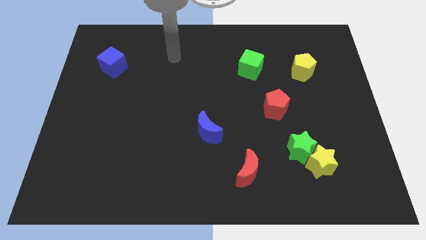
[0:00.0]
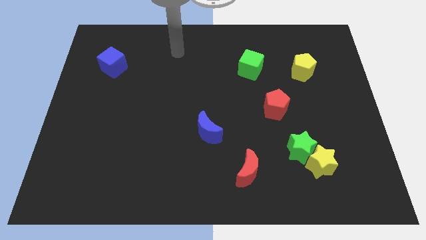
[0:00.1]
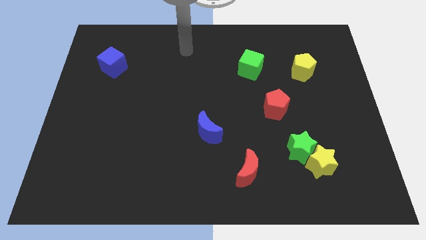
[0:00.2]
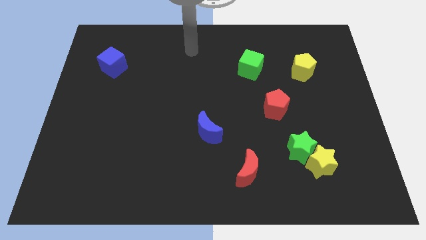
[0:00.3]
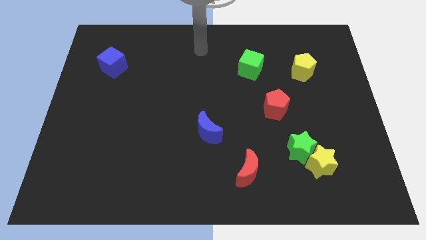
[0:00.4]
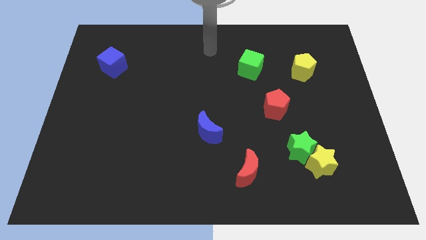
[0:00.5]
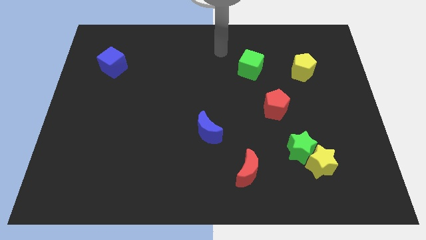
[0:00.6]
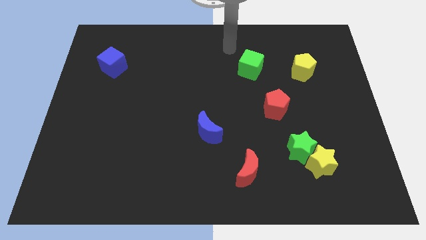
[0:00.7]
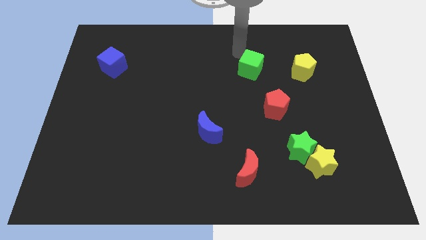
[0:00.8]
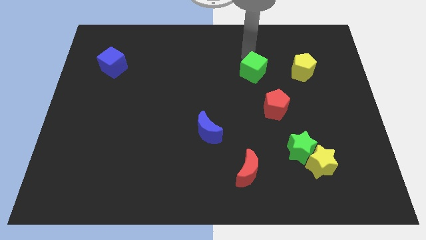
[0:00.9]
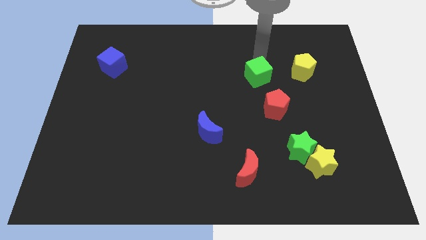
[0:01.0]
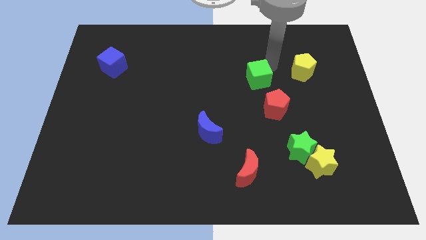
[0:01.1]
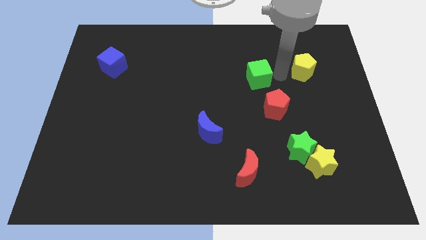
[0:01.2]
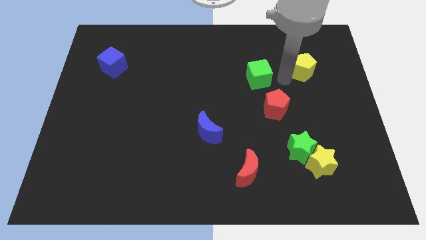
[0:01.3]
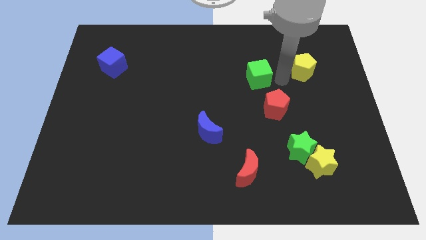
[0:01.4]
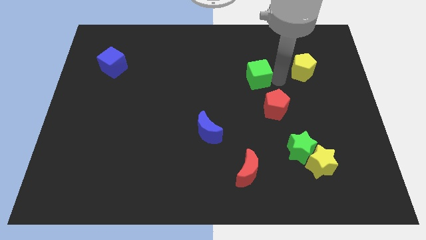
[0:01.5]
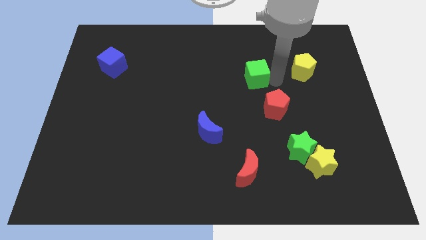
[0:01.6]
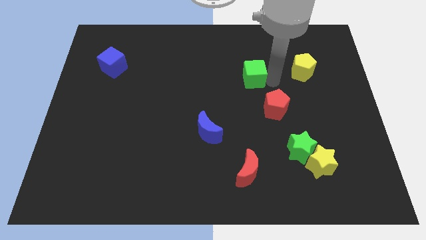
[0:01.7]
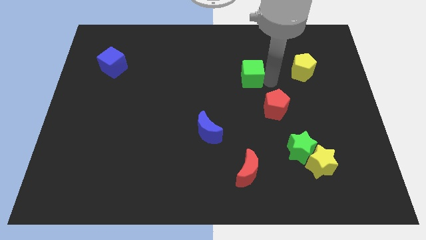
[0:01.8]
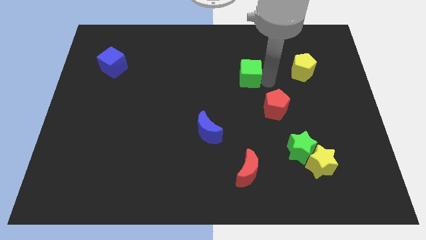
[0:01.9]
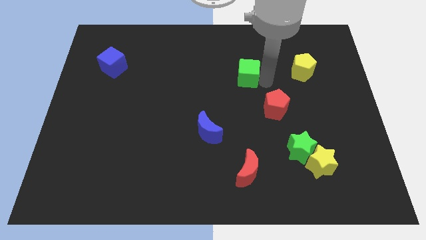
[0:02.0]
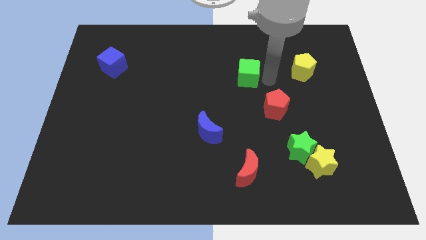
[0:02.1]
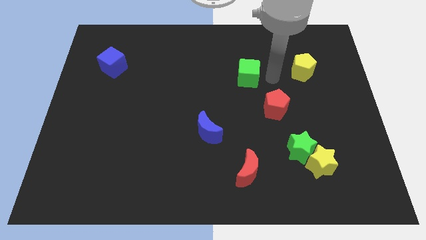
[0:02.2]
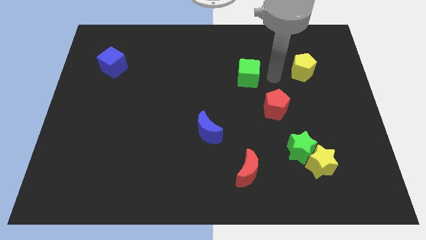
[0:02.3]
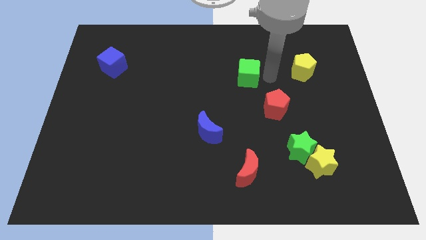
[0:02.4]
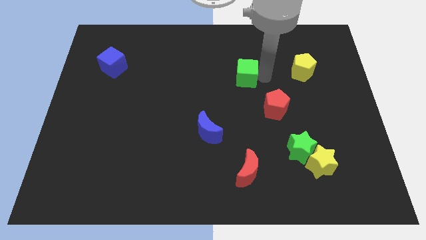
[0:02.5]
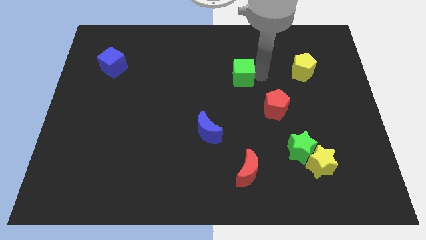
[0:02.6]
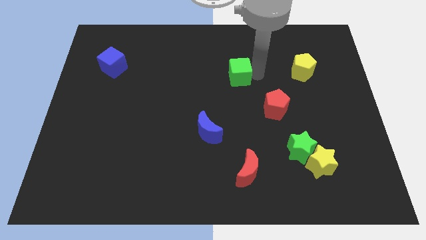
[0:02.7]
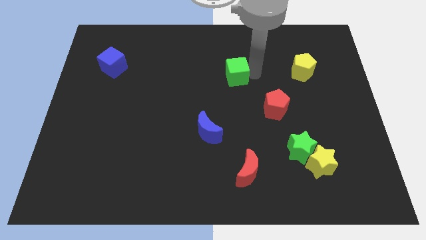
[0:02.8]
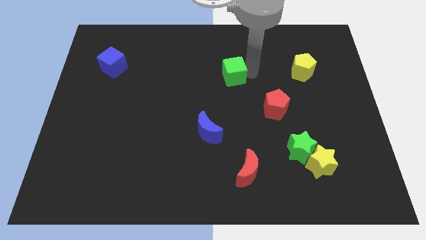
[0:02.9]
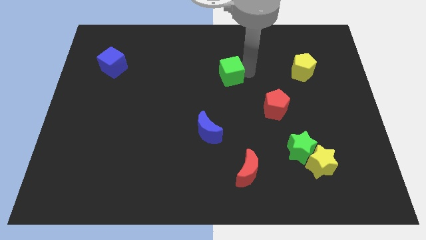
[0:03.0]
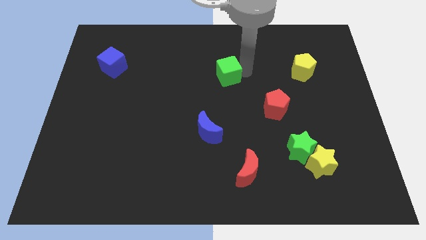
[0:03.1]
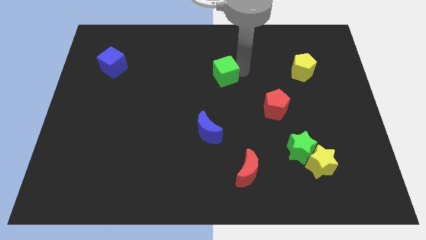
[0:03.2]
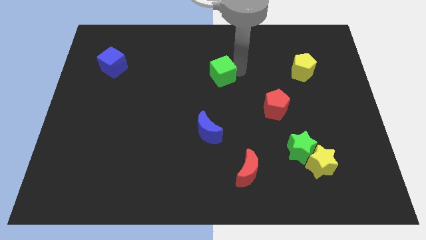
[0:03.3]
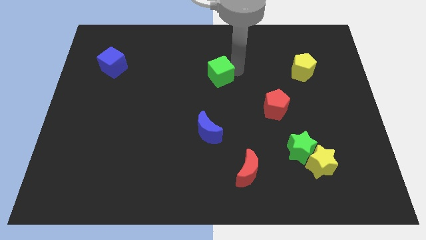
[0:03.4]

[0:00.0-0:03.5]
move the green cube a bit downwards and then to the left

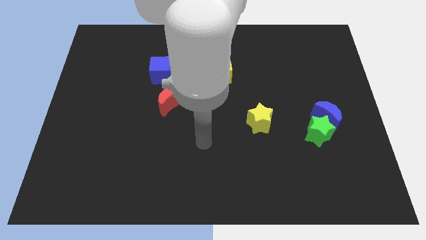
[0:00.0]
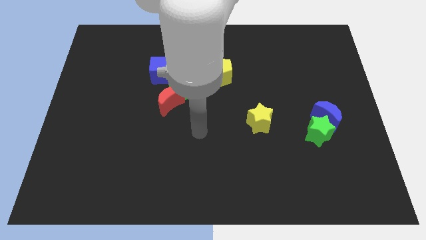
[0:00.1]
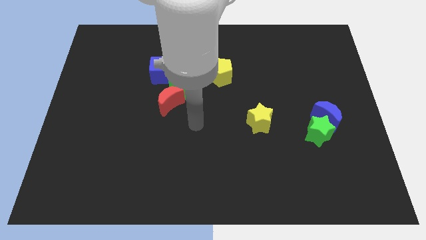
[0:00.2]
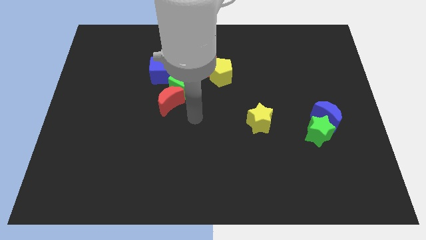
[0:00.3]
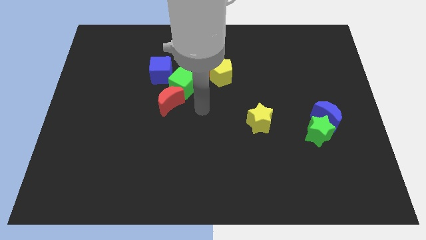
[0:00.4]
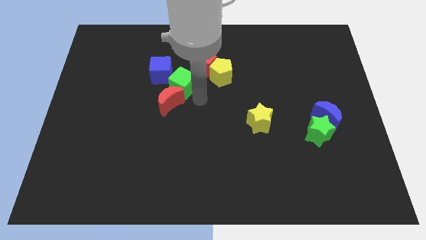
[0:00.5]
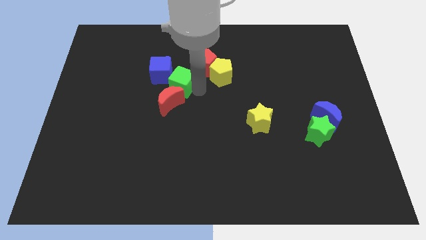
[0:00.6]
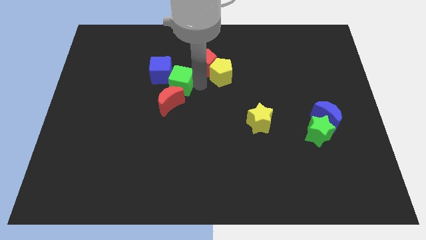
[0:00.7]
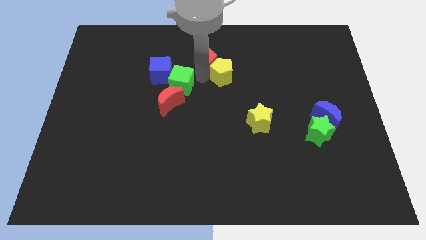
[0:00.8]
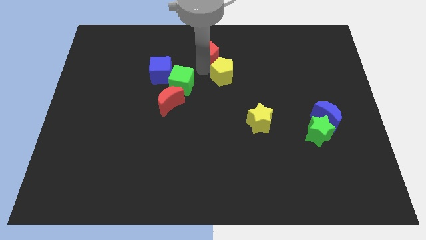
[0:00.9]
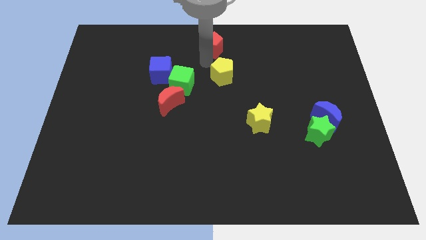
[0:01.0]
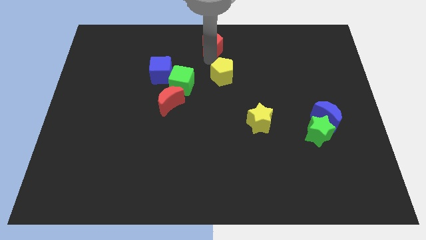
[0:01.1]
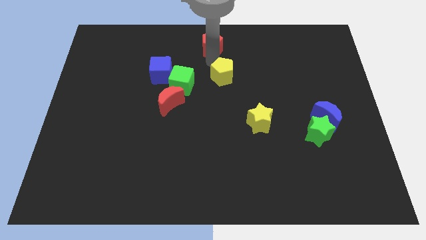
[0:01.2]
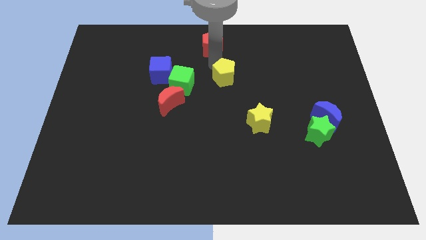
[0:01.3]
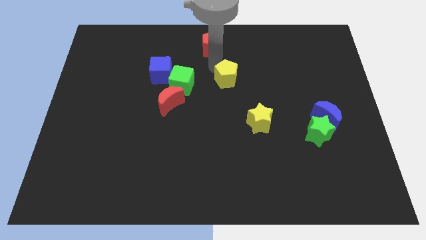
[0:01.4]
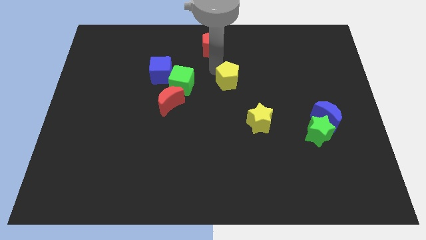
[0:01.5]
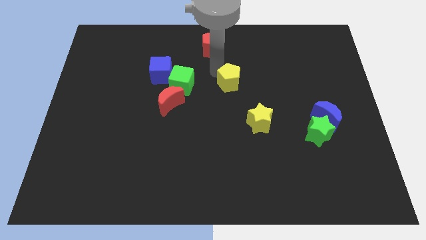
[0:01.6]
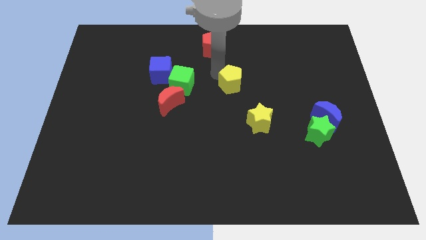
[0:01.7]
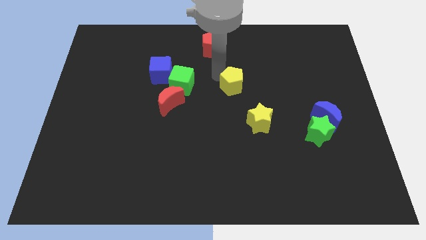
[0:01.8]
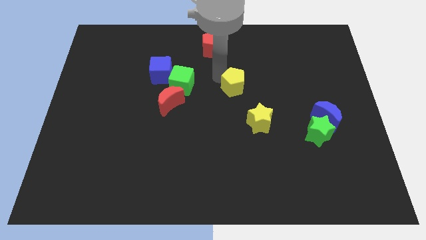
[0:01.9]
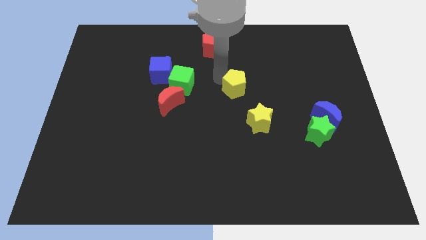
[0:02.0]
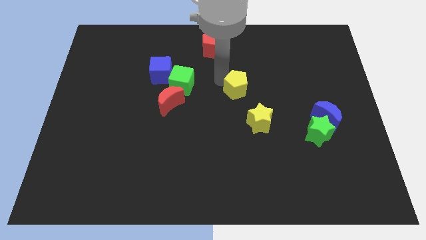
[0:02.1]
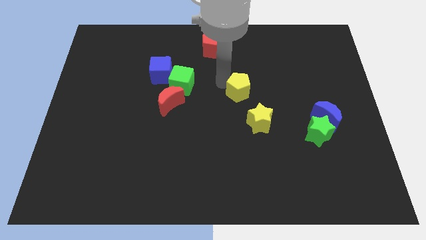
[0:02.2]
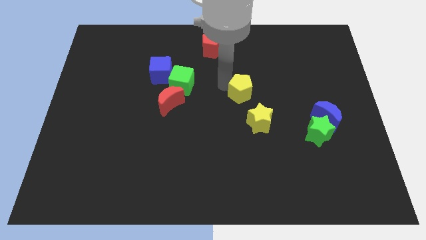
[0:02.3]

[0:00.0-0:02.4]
push the yellow pentagon a little down and then to the right

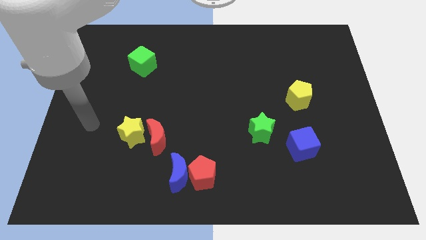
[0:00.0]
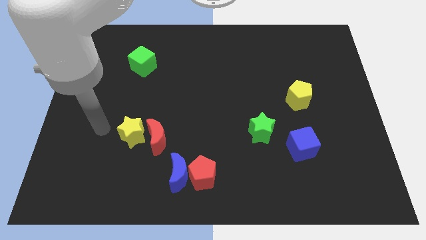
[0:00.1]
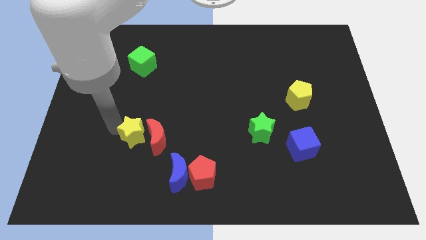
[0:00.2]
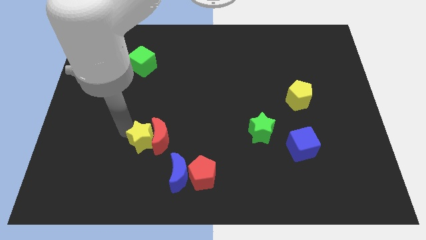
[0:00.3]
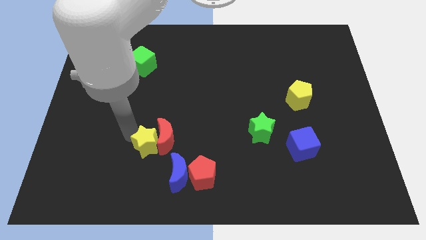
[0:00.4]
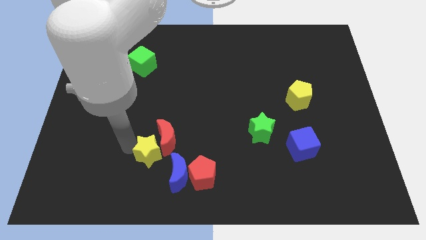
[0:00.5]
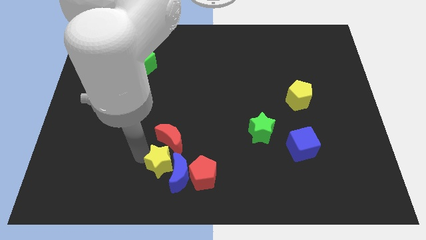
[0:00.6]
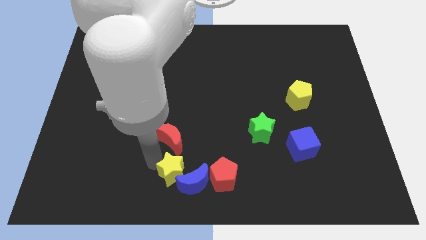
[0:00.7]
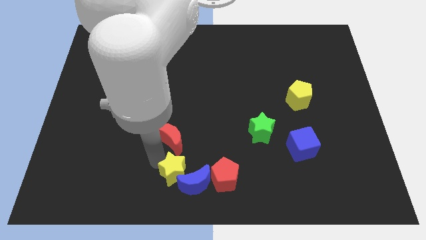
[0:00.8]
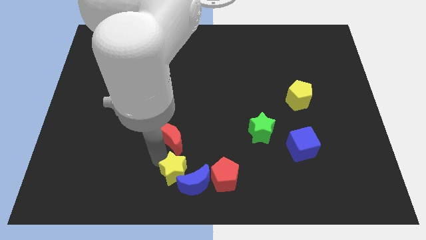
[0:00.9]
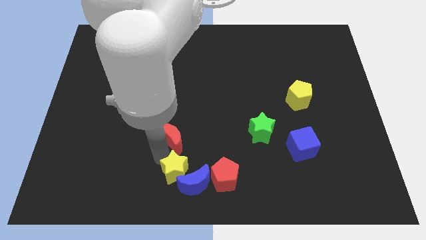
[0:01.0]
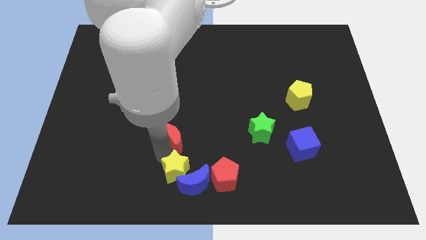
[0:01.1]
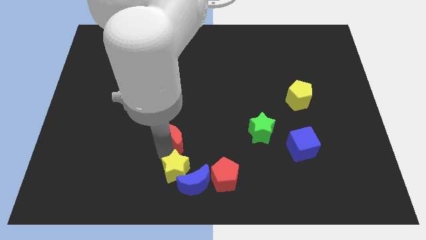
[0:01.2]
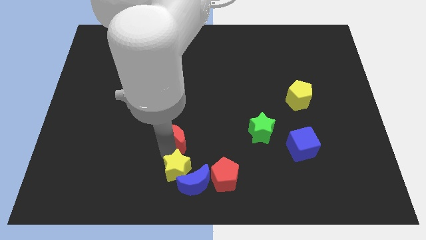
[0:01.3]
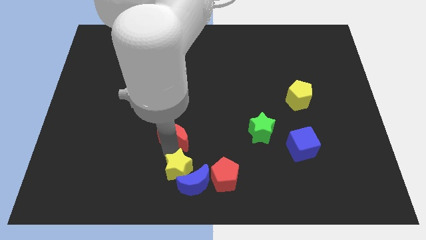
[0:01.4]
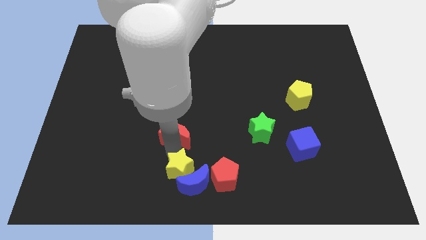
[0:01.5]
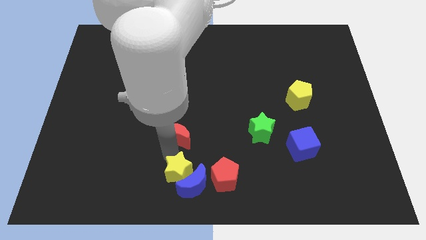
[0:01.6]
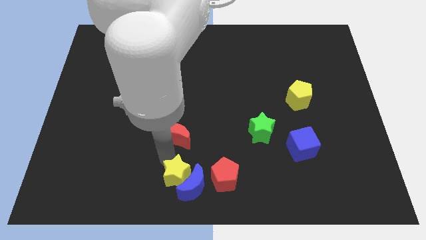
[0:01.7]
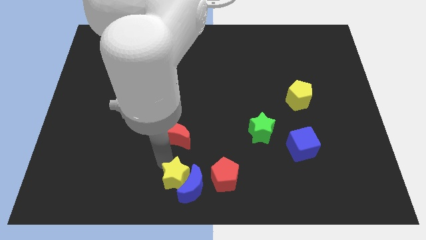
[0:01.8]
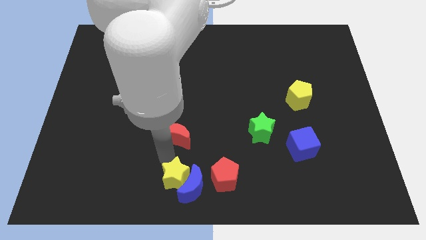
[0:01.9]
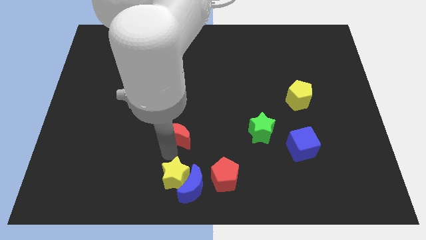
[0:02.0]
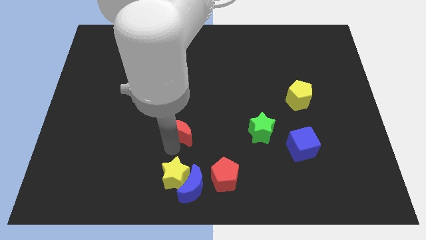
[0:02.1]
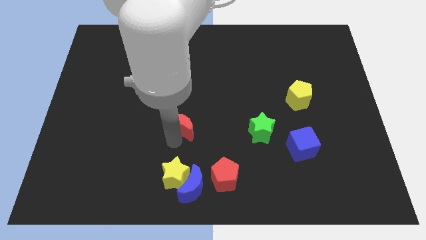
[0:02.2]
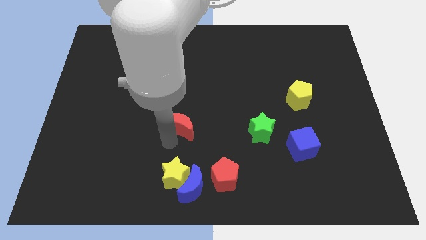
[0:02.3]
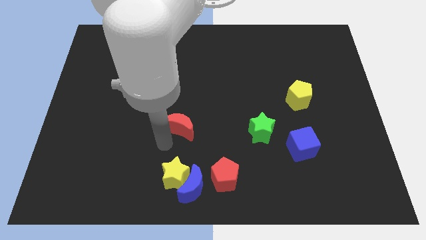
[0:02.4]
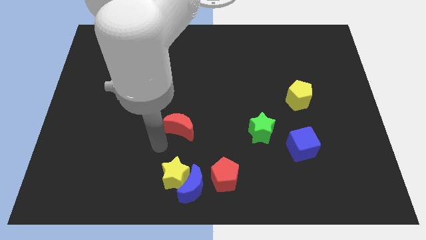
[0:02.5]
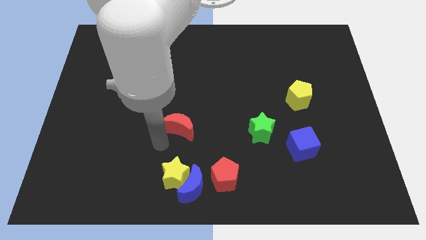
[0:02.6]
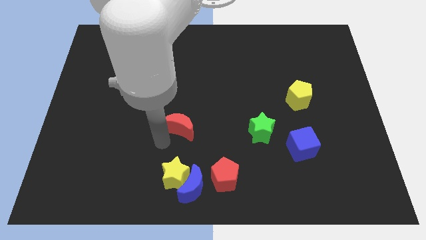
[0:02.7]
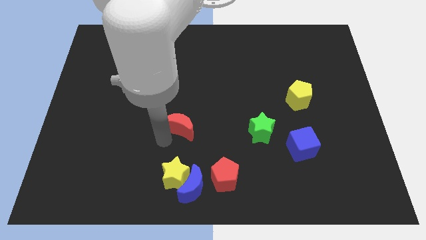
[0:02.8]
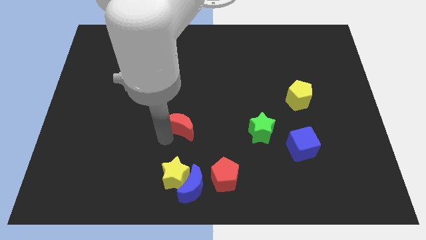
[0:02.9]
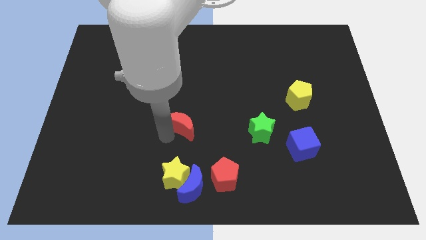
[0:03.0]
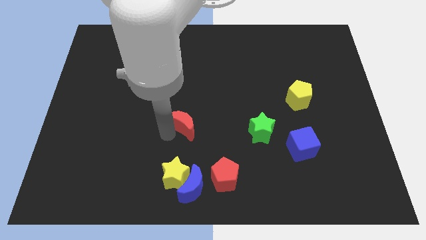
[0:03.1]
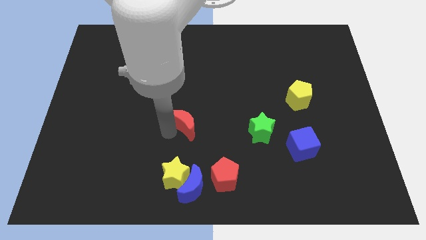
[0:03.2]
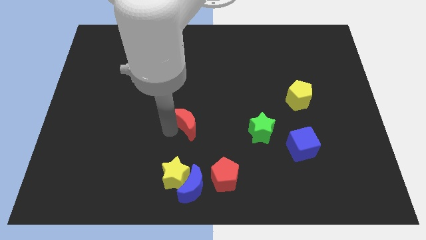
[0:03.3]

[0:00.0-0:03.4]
move the red moon upwards and to the right diagonally a little bit
